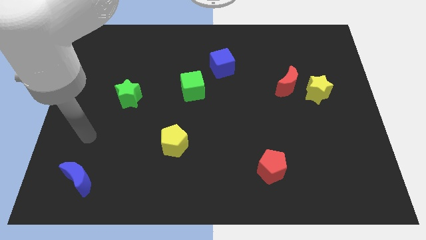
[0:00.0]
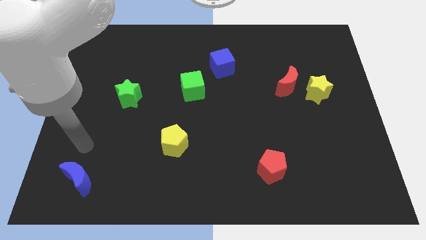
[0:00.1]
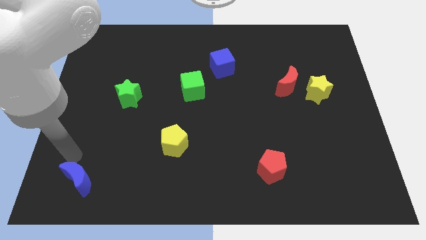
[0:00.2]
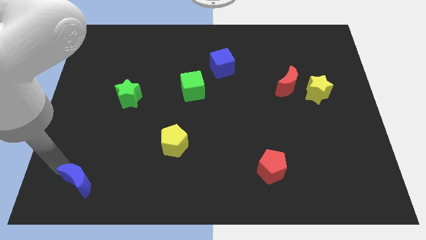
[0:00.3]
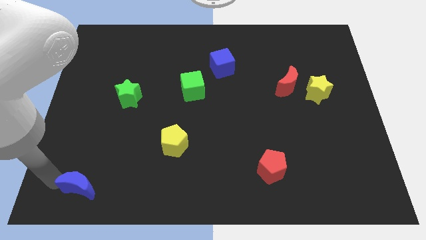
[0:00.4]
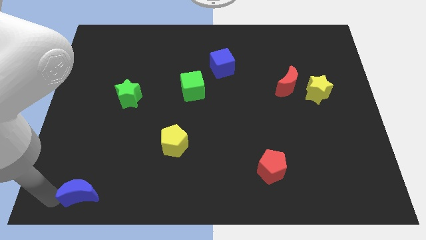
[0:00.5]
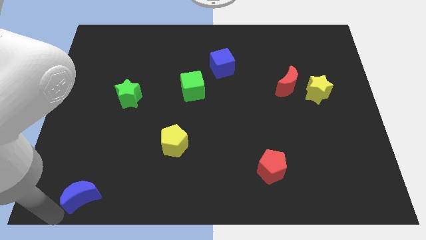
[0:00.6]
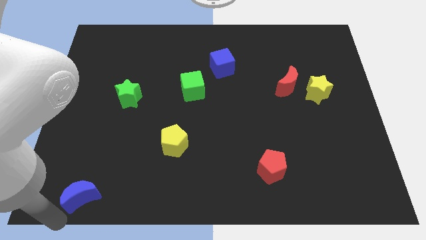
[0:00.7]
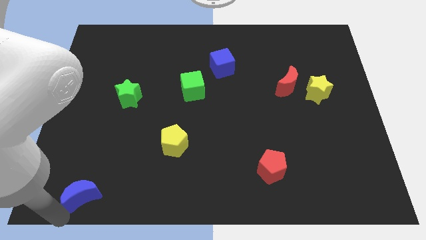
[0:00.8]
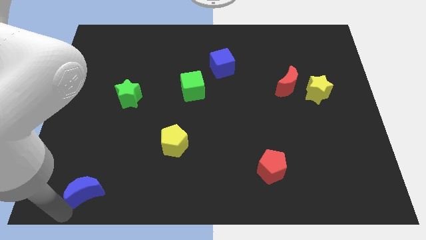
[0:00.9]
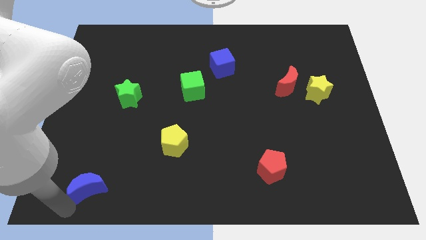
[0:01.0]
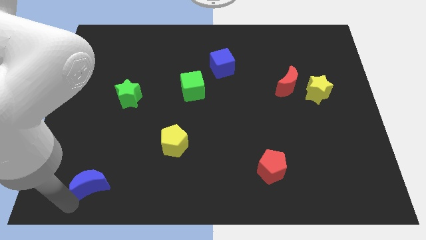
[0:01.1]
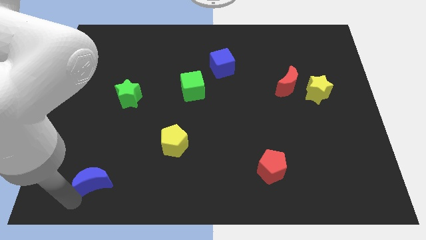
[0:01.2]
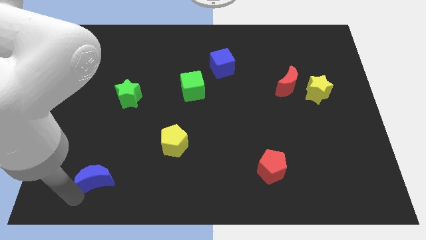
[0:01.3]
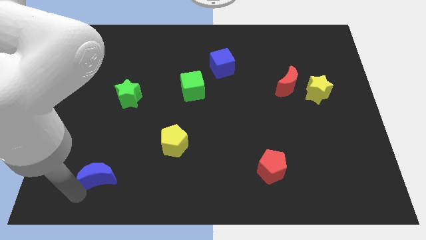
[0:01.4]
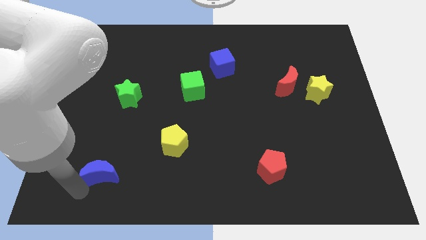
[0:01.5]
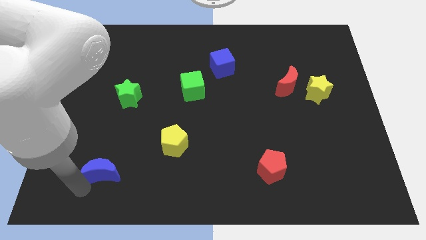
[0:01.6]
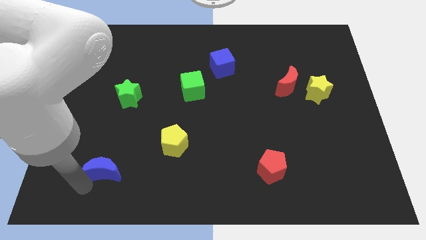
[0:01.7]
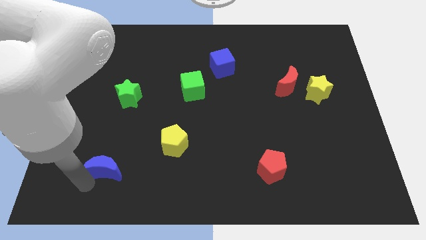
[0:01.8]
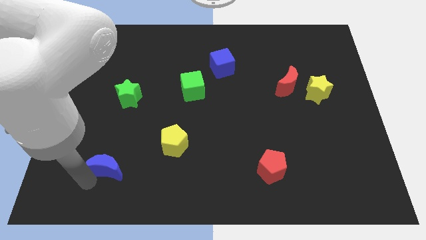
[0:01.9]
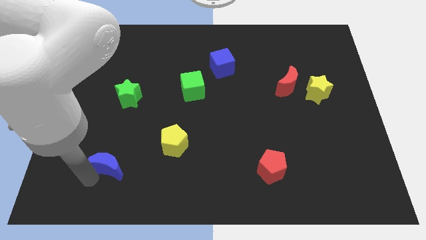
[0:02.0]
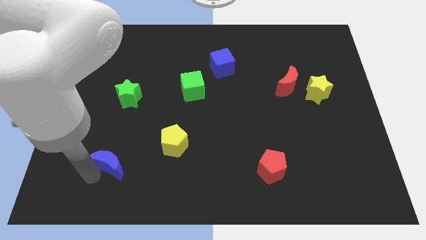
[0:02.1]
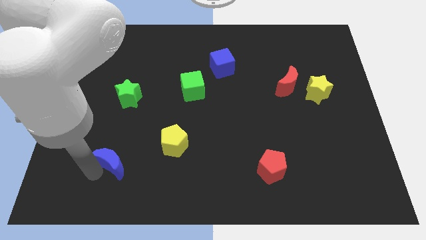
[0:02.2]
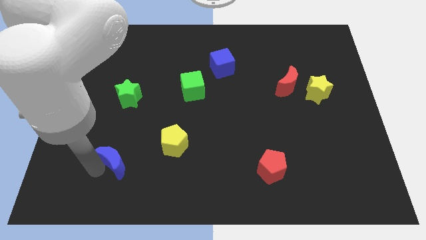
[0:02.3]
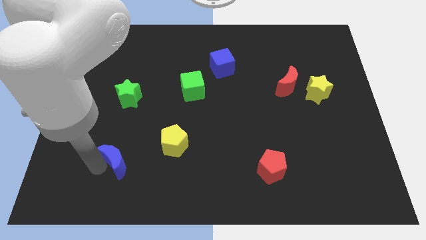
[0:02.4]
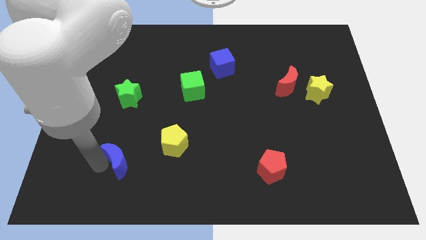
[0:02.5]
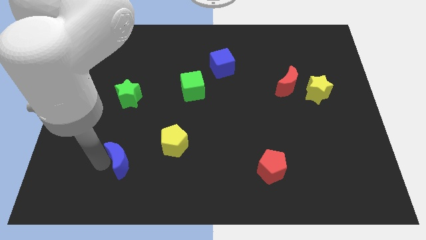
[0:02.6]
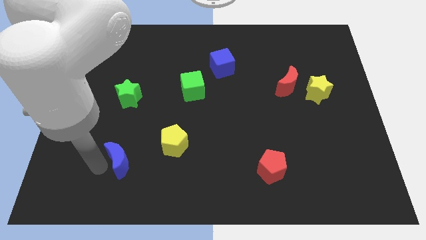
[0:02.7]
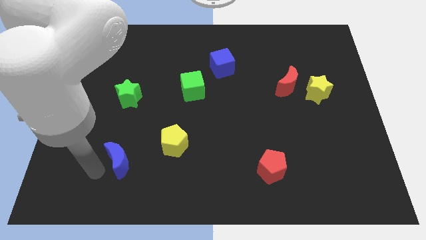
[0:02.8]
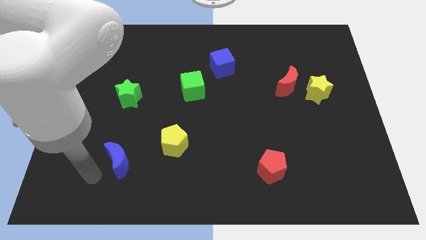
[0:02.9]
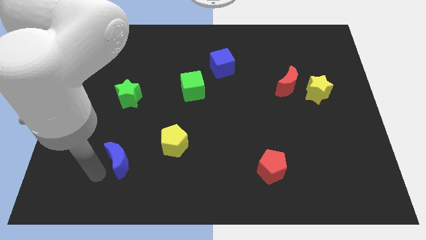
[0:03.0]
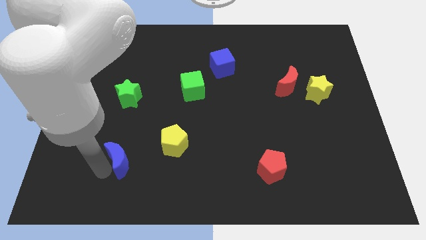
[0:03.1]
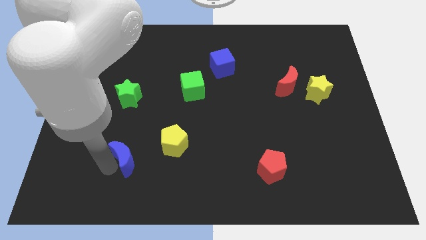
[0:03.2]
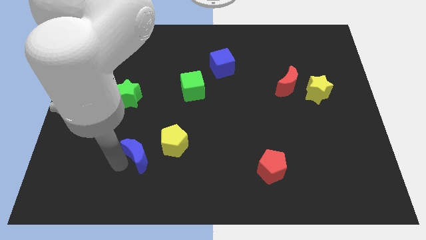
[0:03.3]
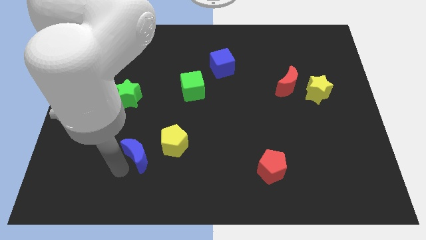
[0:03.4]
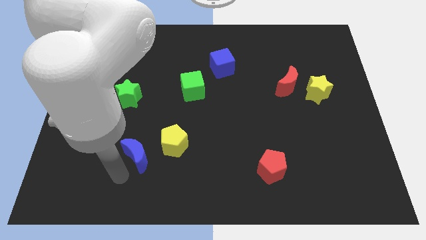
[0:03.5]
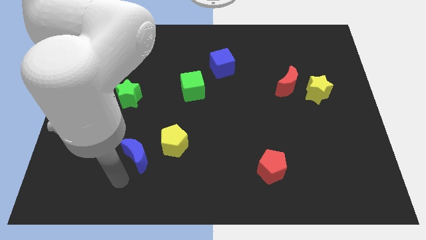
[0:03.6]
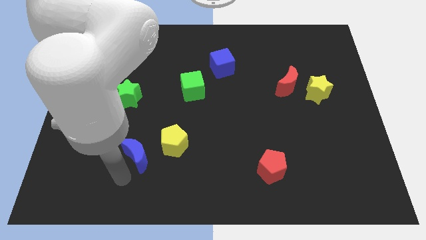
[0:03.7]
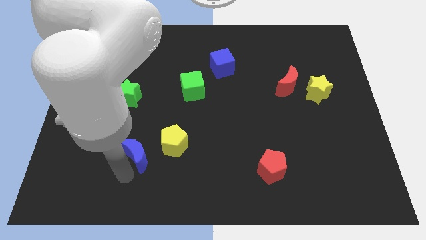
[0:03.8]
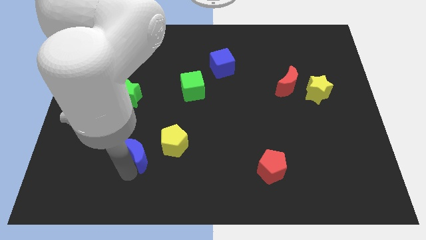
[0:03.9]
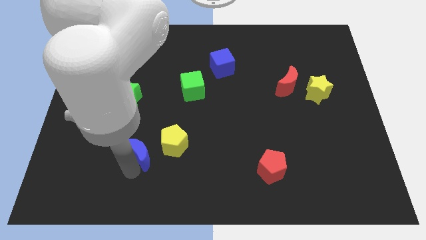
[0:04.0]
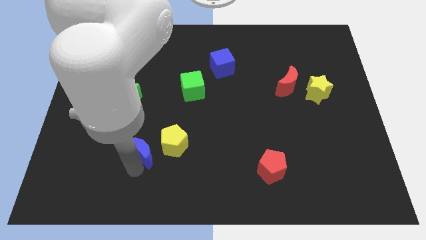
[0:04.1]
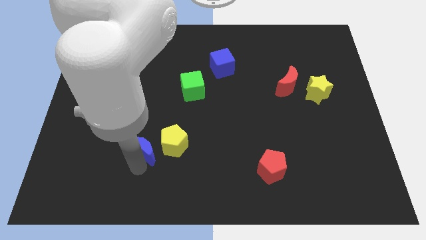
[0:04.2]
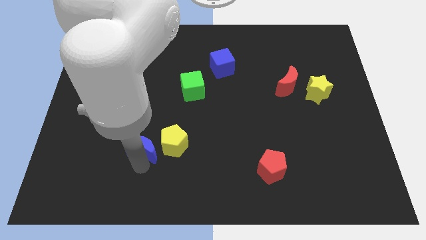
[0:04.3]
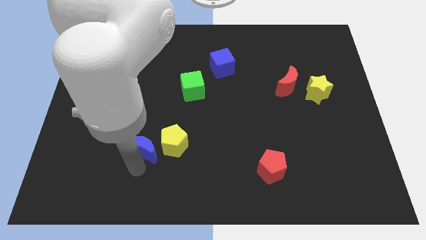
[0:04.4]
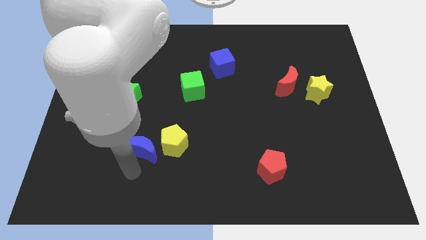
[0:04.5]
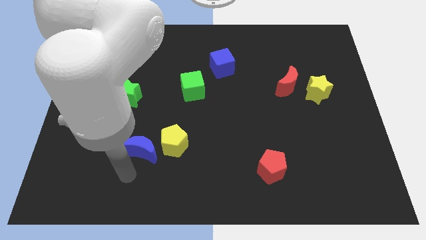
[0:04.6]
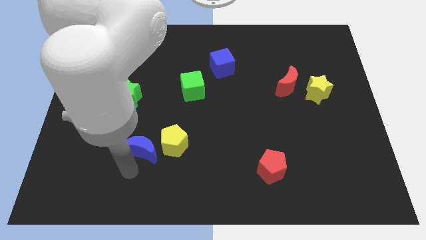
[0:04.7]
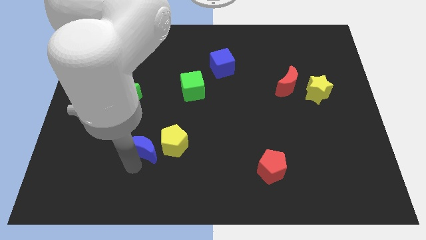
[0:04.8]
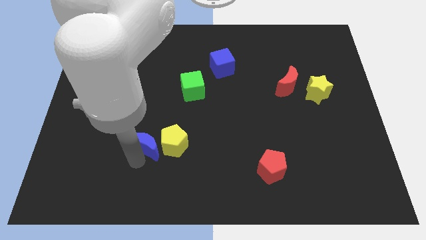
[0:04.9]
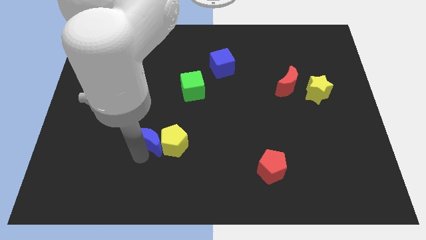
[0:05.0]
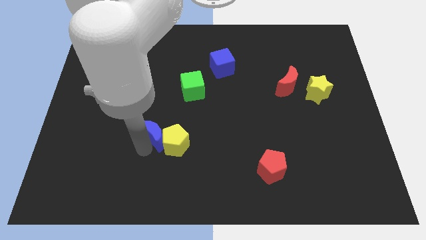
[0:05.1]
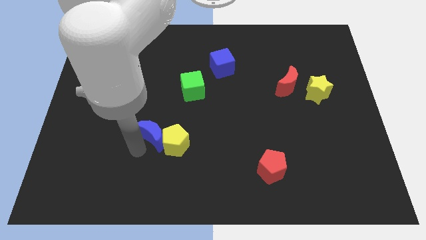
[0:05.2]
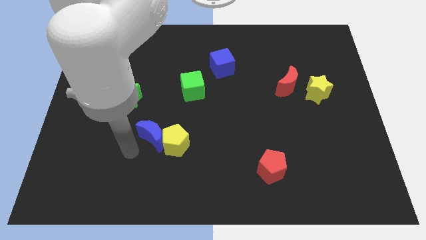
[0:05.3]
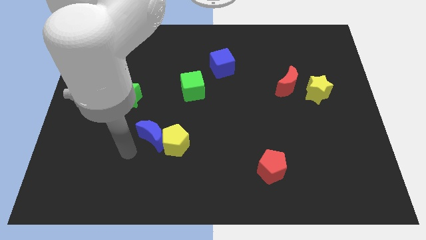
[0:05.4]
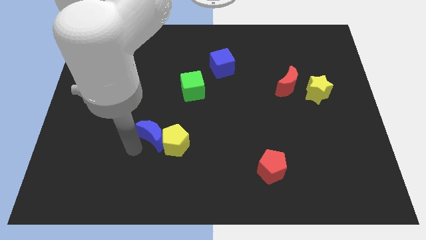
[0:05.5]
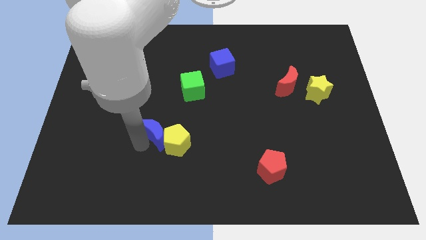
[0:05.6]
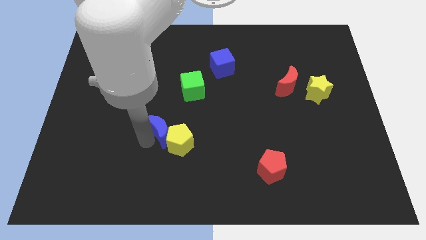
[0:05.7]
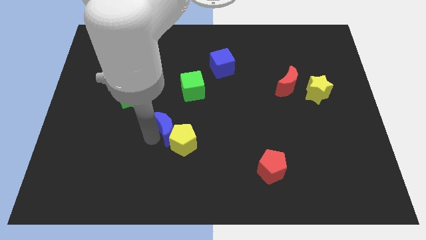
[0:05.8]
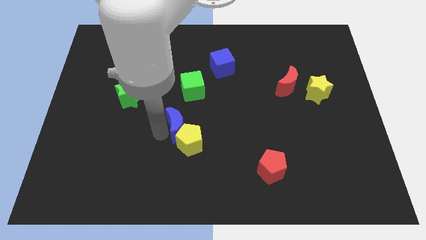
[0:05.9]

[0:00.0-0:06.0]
push the blue moon to the middle
